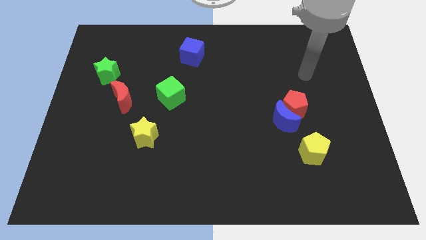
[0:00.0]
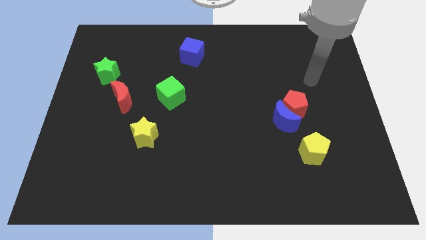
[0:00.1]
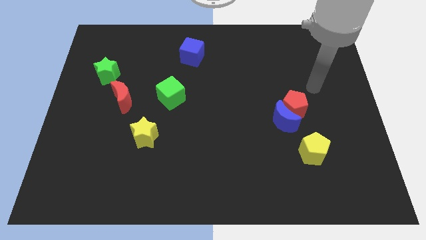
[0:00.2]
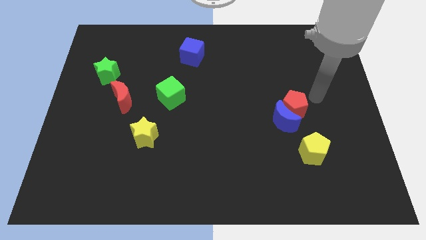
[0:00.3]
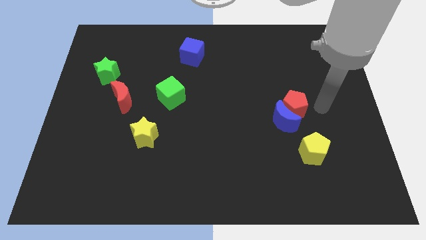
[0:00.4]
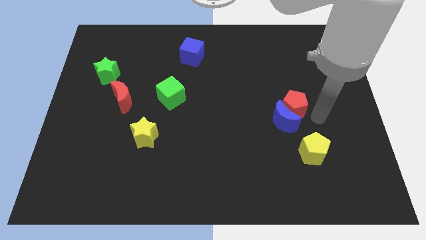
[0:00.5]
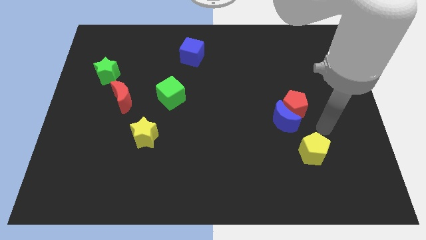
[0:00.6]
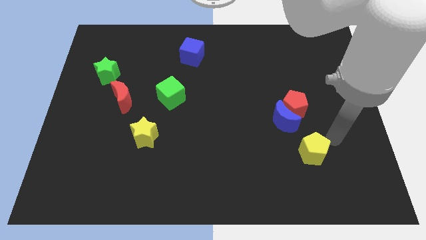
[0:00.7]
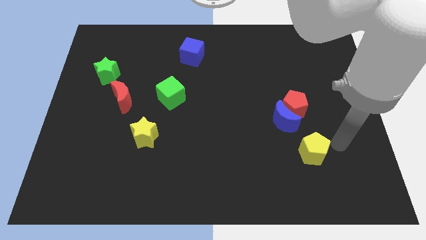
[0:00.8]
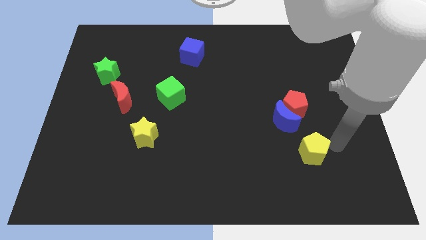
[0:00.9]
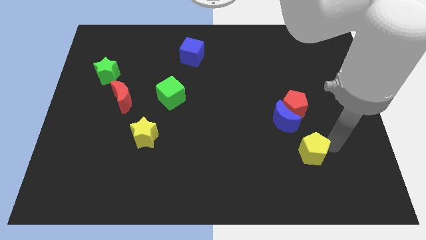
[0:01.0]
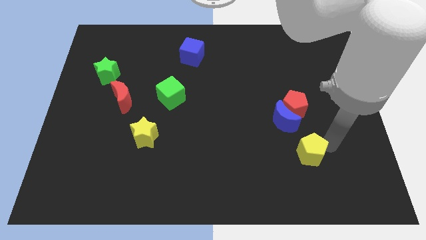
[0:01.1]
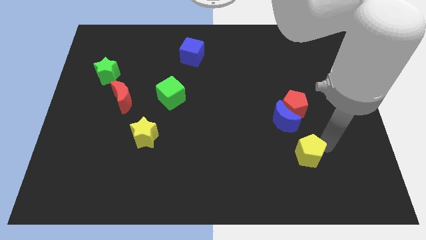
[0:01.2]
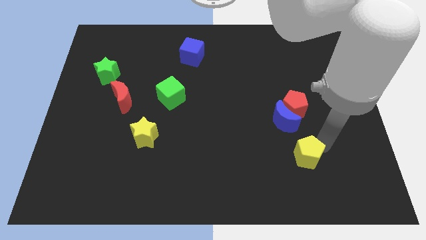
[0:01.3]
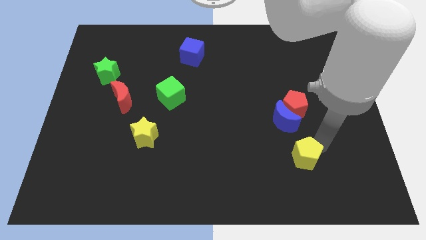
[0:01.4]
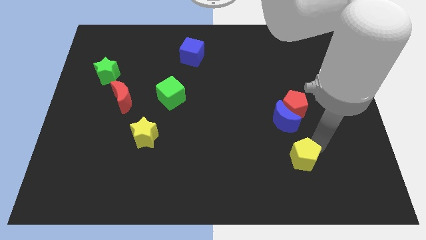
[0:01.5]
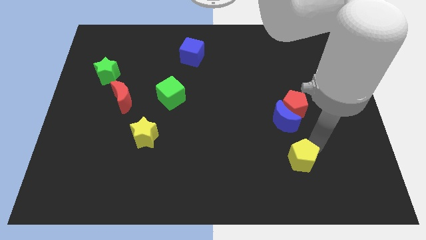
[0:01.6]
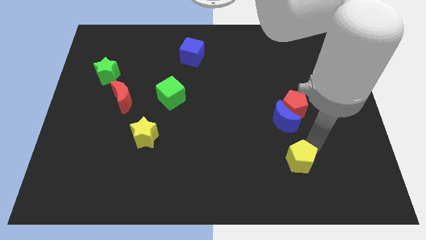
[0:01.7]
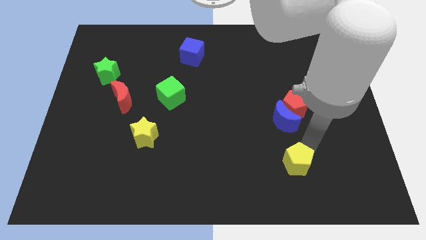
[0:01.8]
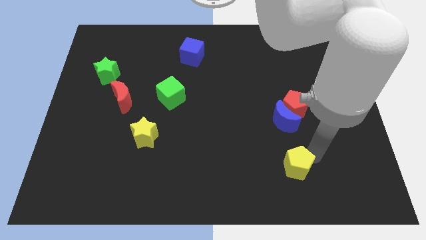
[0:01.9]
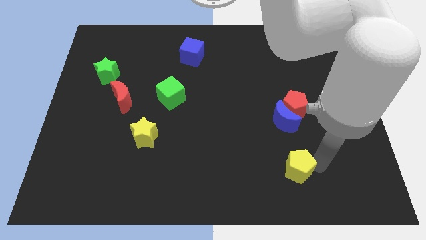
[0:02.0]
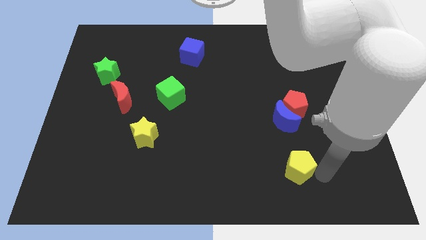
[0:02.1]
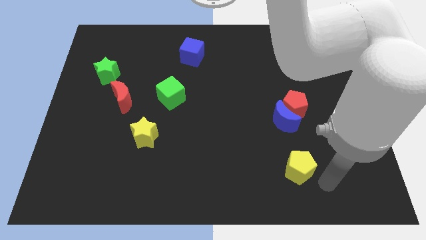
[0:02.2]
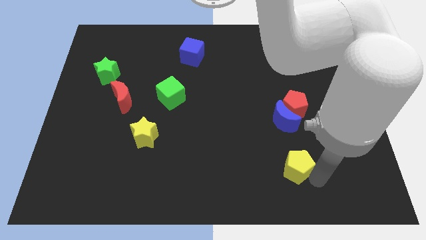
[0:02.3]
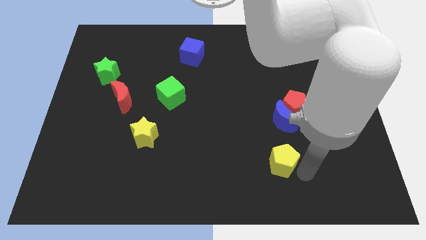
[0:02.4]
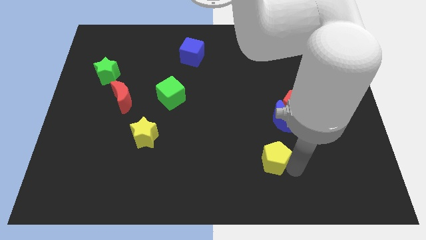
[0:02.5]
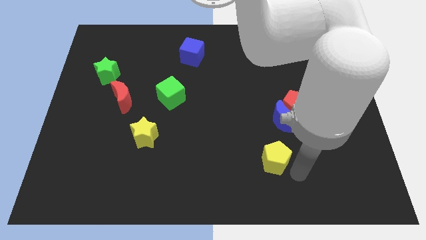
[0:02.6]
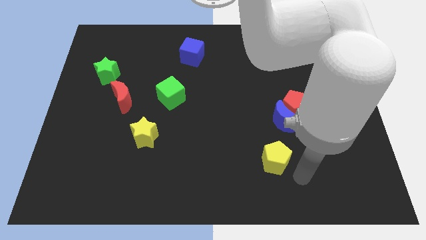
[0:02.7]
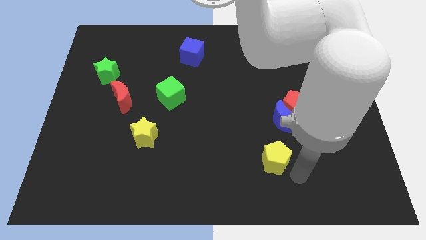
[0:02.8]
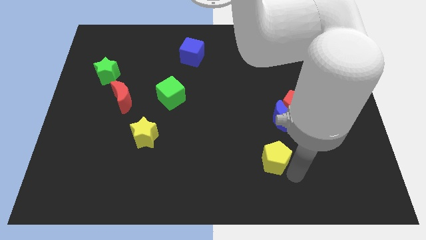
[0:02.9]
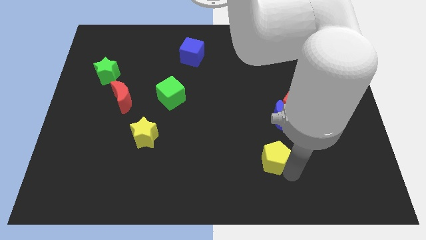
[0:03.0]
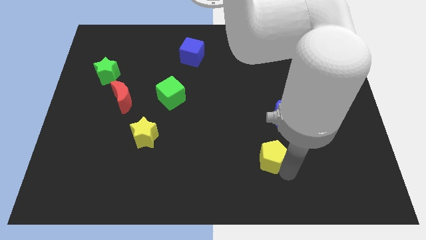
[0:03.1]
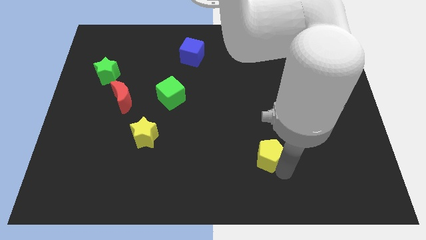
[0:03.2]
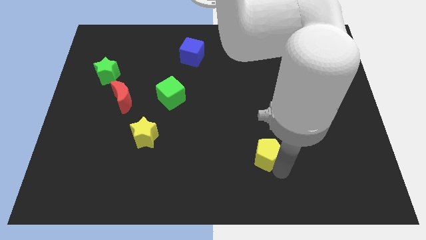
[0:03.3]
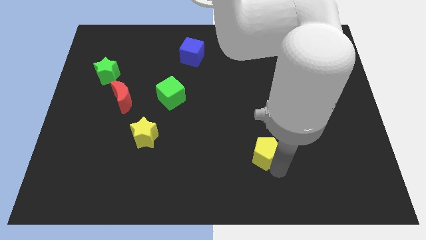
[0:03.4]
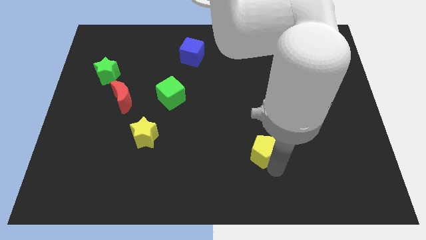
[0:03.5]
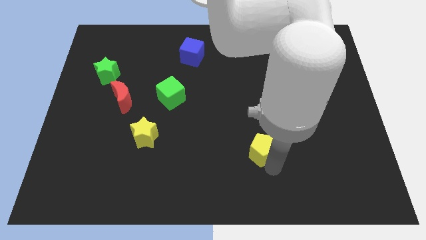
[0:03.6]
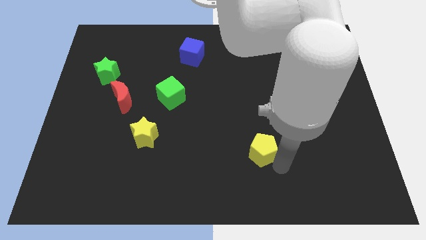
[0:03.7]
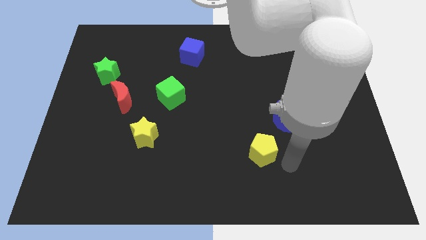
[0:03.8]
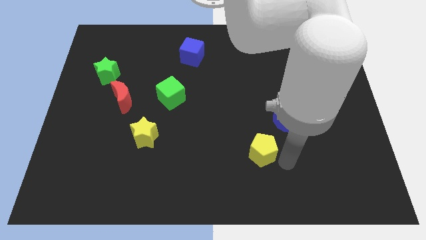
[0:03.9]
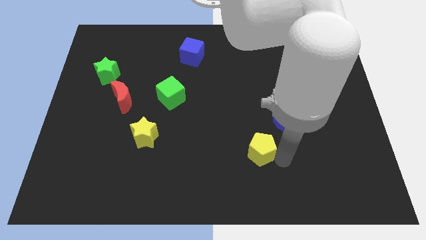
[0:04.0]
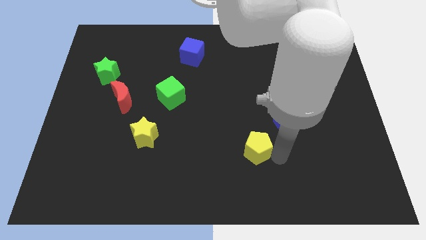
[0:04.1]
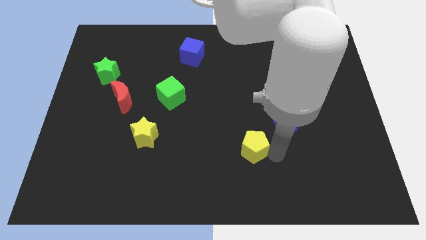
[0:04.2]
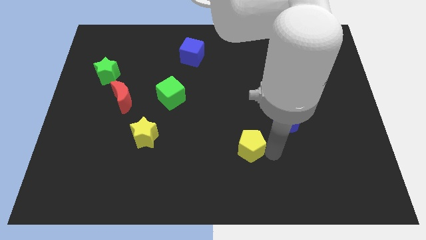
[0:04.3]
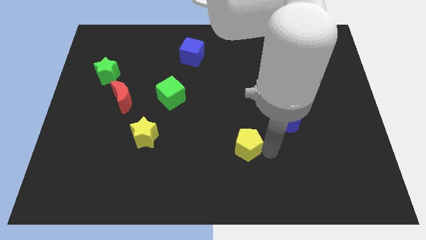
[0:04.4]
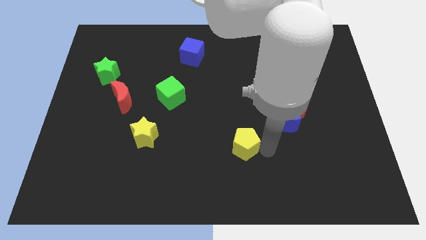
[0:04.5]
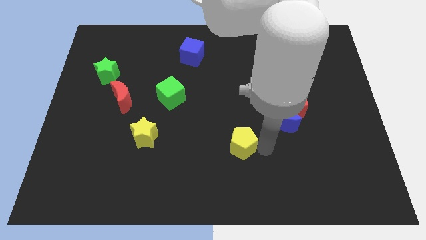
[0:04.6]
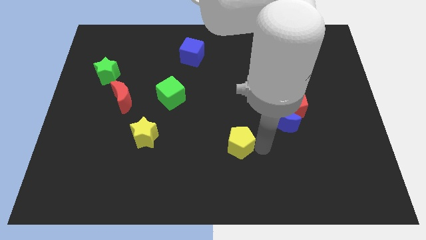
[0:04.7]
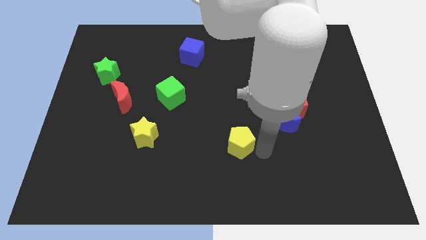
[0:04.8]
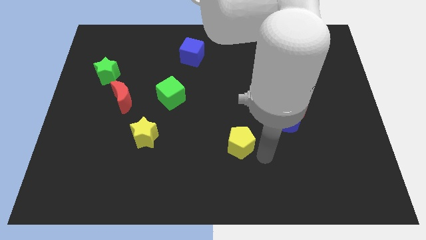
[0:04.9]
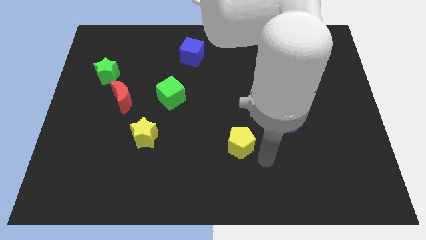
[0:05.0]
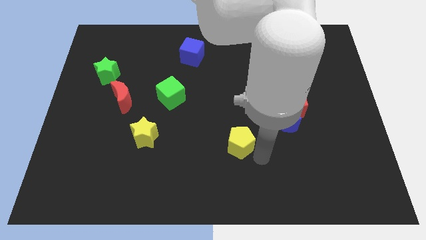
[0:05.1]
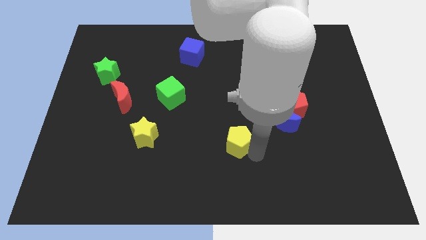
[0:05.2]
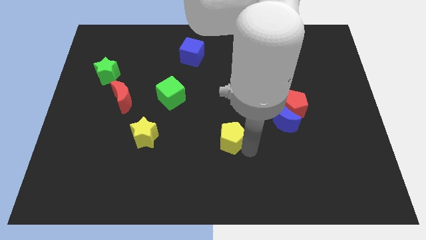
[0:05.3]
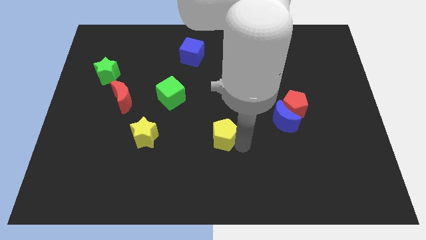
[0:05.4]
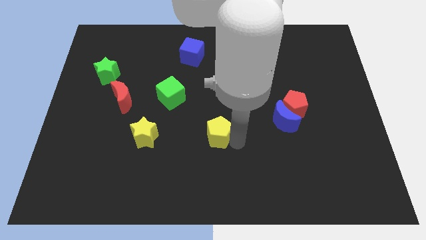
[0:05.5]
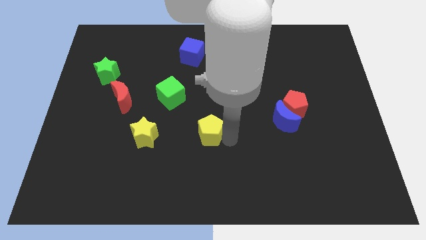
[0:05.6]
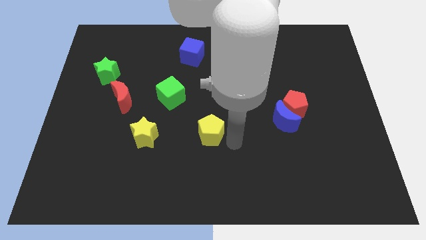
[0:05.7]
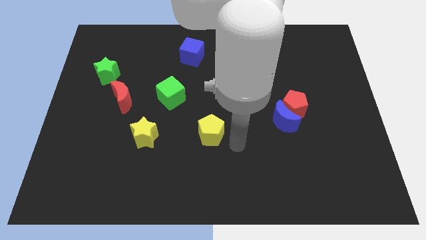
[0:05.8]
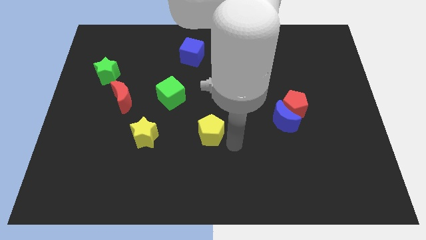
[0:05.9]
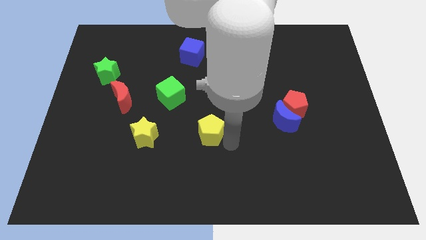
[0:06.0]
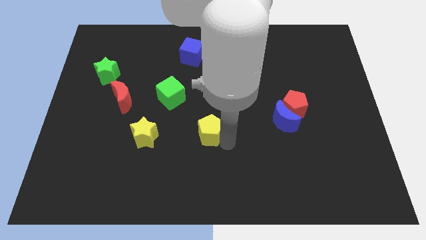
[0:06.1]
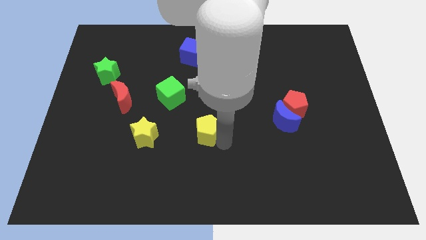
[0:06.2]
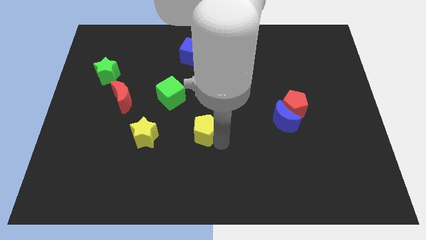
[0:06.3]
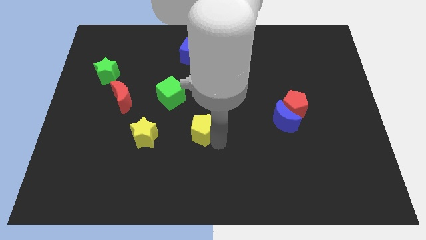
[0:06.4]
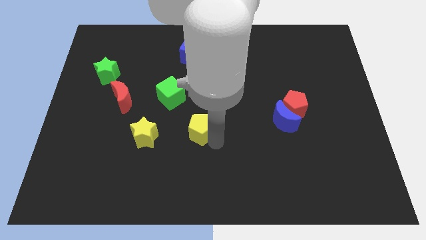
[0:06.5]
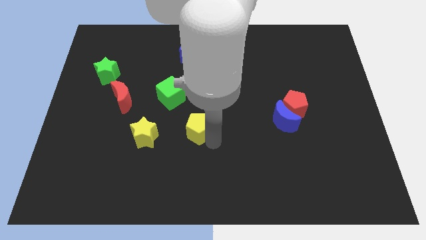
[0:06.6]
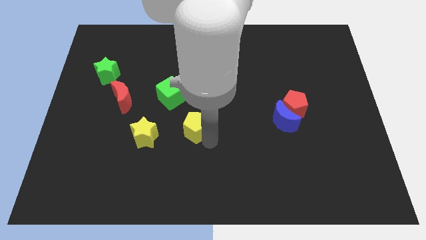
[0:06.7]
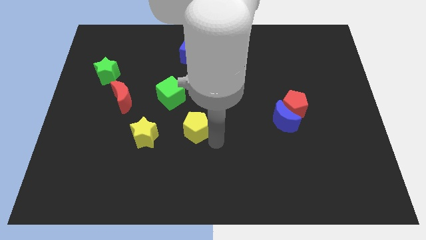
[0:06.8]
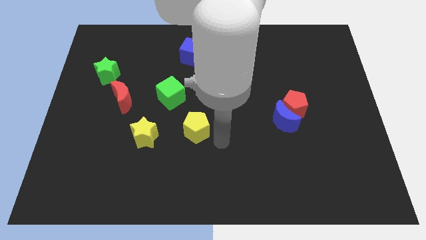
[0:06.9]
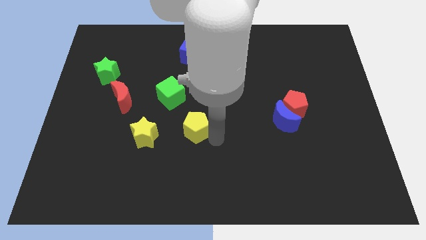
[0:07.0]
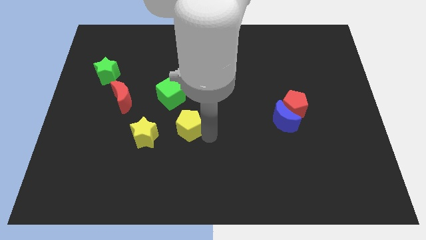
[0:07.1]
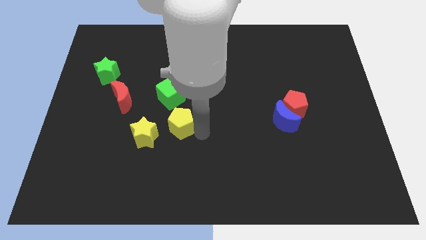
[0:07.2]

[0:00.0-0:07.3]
slide the yellow pentagon diagonally up and to the right of the yellow star

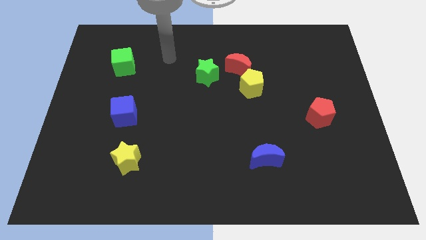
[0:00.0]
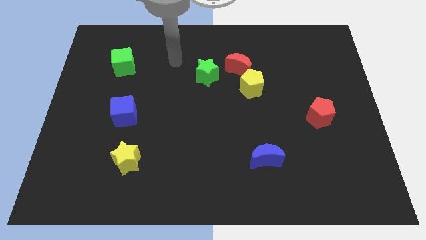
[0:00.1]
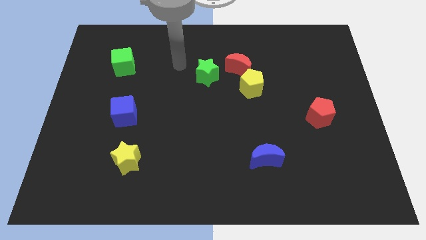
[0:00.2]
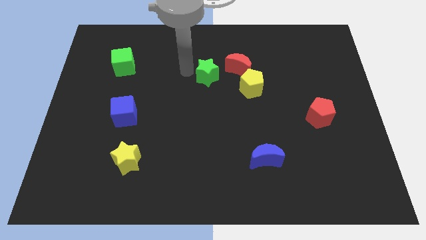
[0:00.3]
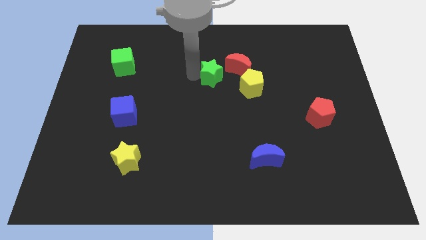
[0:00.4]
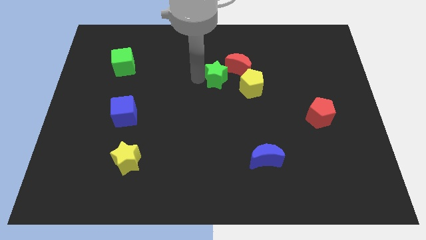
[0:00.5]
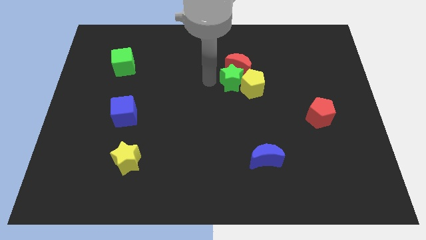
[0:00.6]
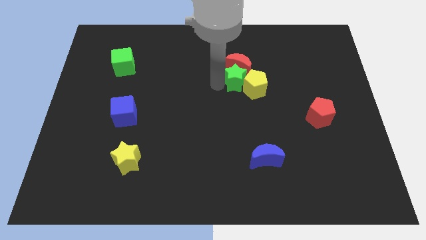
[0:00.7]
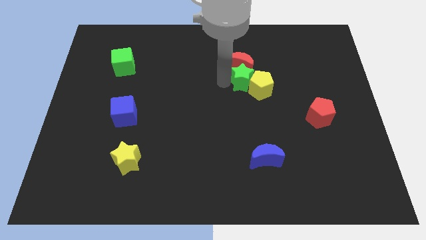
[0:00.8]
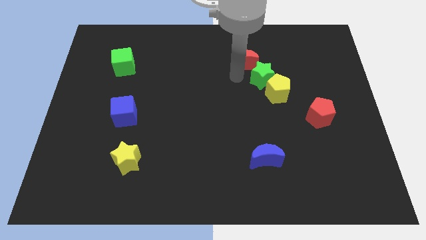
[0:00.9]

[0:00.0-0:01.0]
put the yellow pentagon to the top left of the red pentagon
